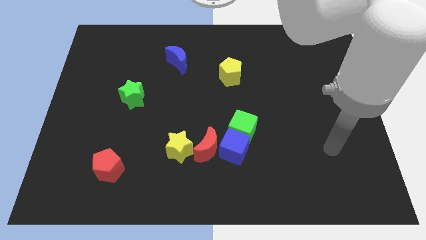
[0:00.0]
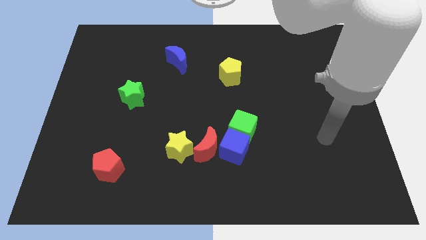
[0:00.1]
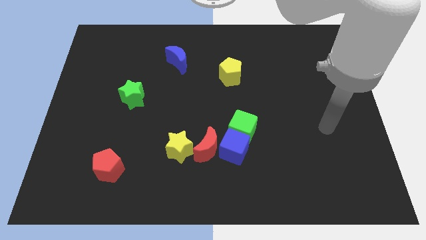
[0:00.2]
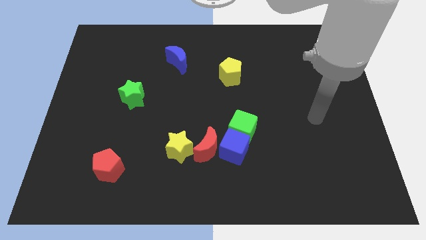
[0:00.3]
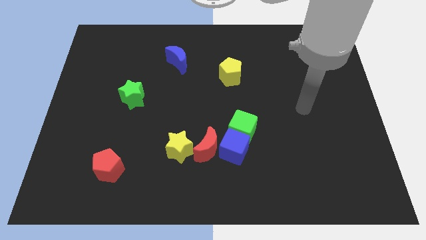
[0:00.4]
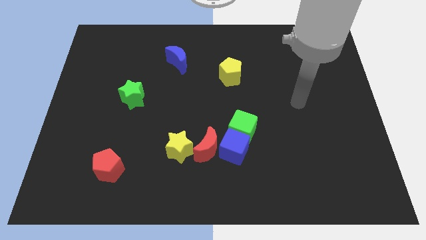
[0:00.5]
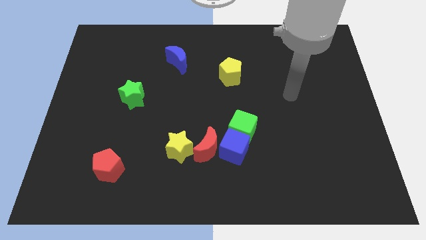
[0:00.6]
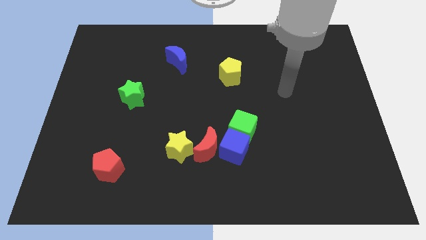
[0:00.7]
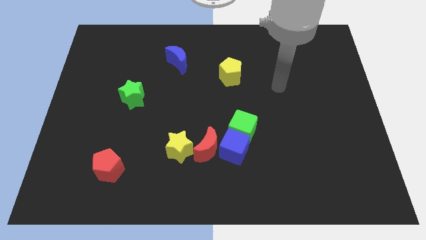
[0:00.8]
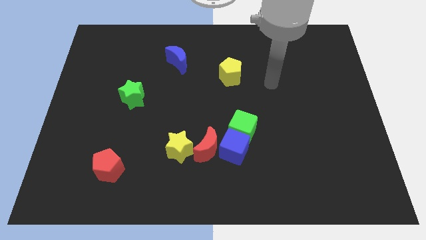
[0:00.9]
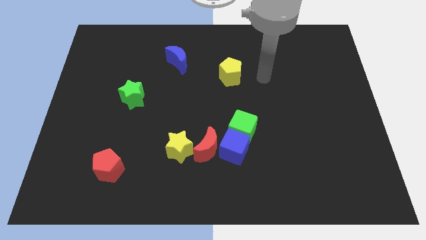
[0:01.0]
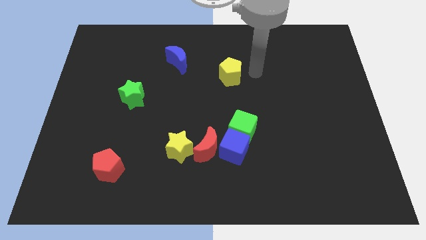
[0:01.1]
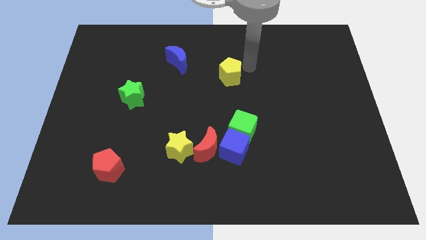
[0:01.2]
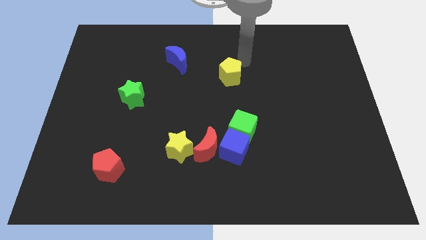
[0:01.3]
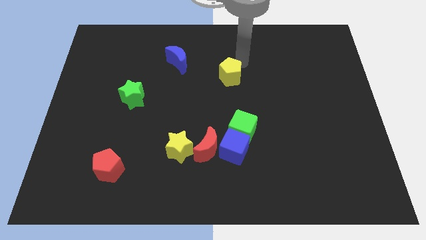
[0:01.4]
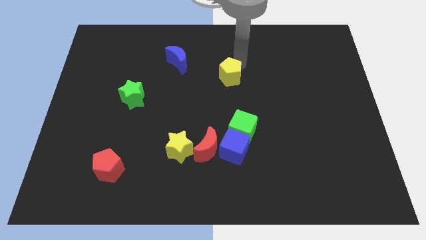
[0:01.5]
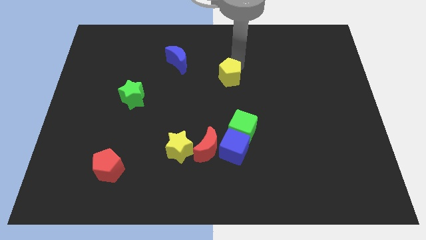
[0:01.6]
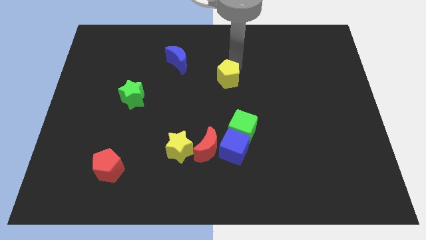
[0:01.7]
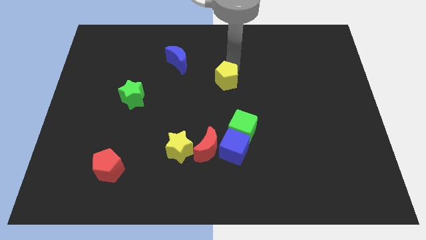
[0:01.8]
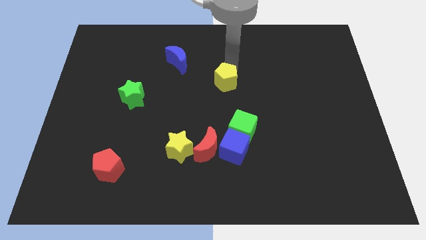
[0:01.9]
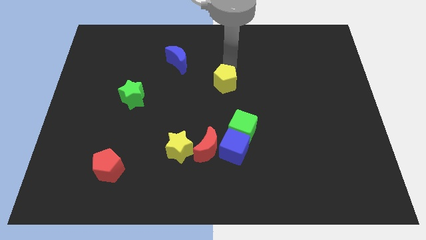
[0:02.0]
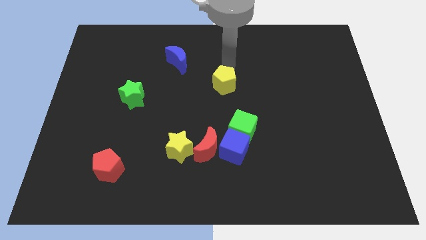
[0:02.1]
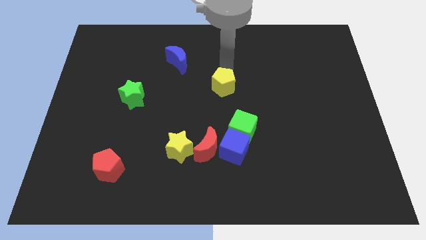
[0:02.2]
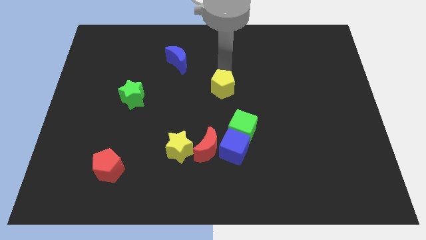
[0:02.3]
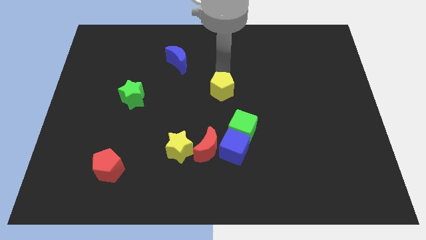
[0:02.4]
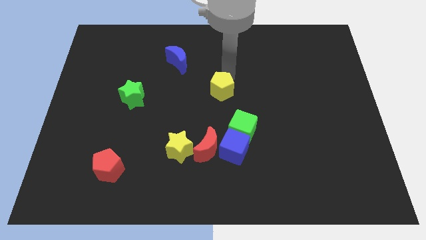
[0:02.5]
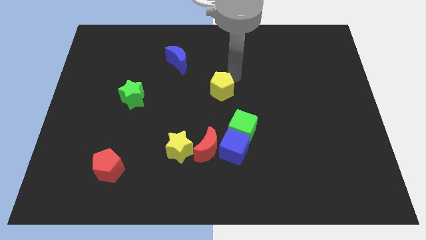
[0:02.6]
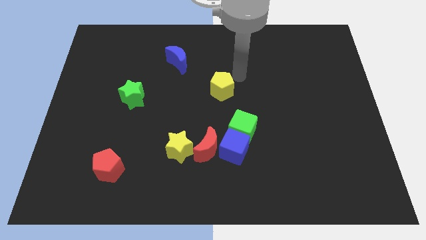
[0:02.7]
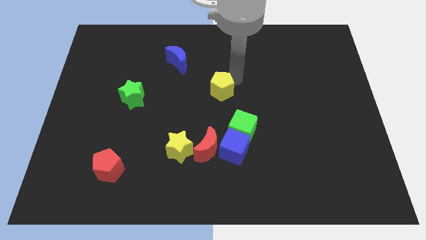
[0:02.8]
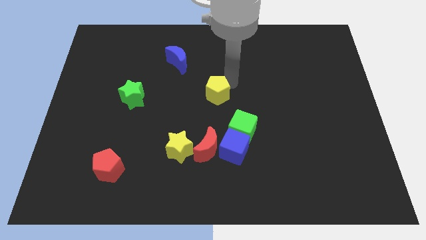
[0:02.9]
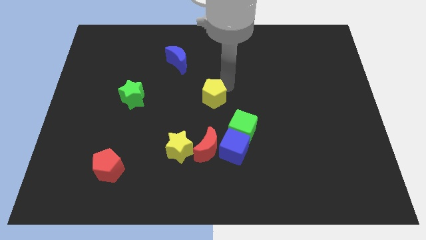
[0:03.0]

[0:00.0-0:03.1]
move the yellow pentagon a little bit diagonally downwards and to the left

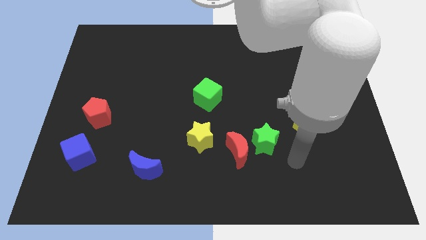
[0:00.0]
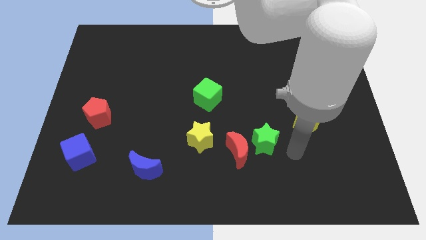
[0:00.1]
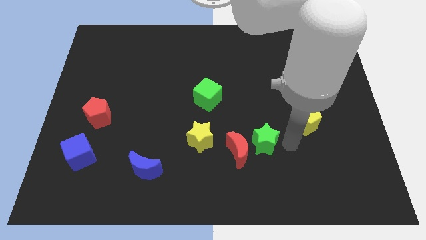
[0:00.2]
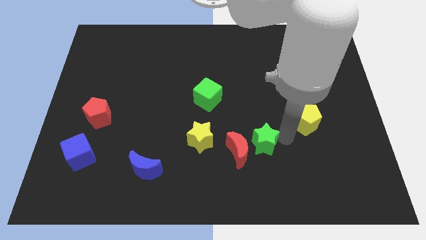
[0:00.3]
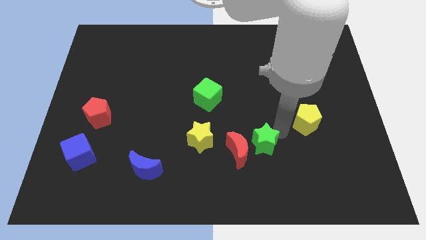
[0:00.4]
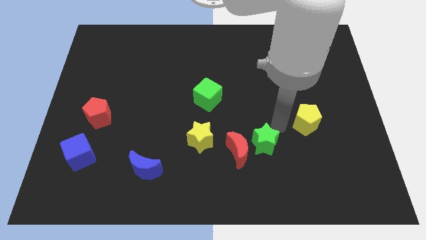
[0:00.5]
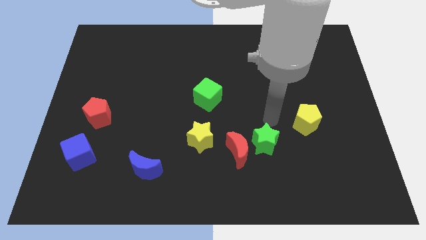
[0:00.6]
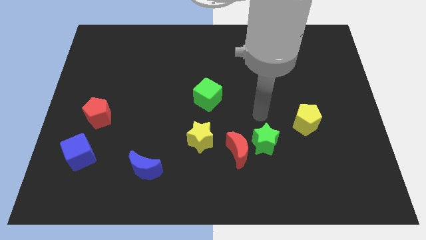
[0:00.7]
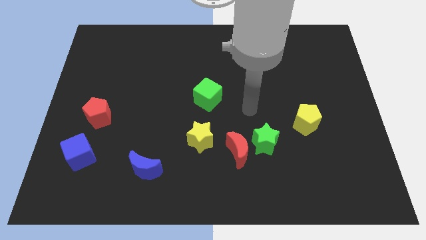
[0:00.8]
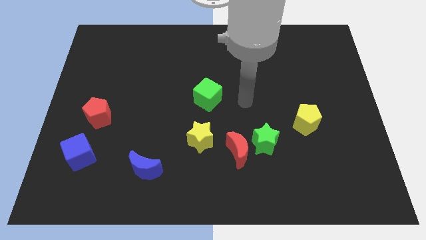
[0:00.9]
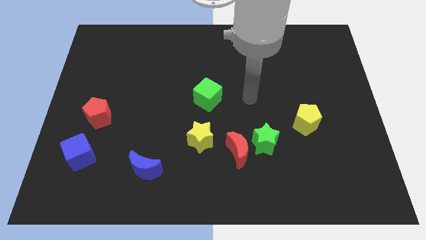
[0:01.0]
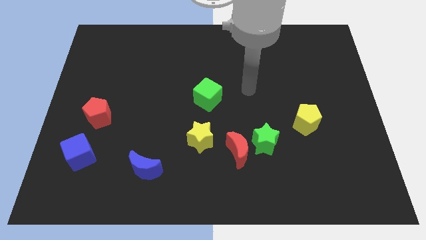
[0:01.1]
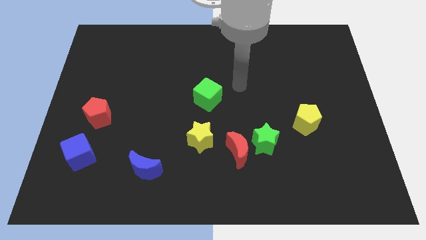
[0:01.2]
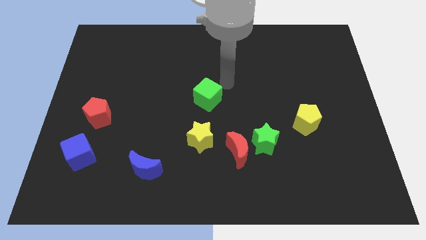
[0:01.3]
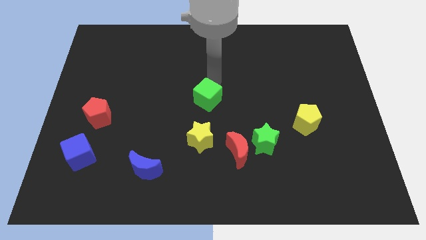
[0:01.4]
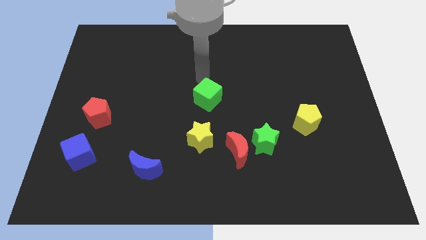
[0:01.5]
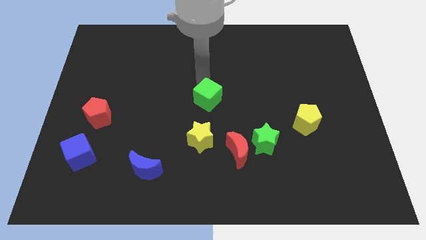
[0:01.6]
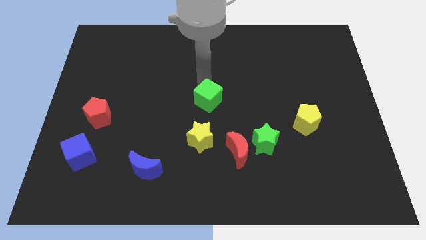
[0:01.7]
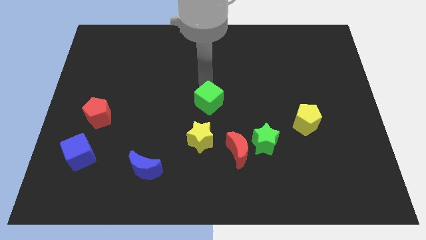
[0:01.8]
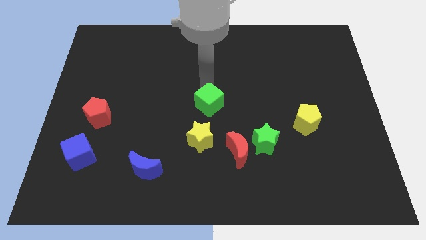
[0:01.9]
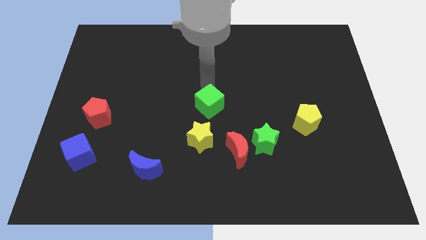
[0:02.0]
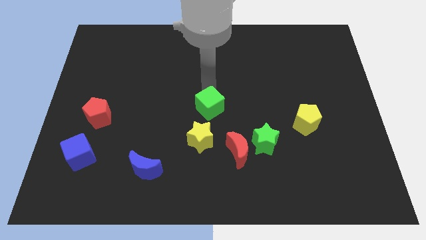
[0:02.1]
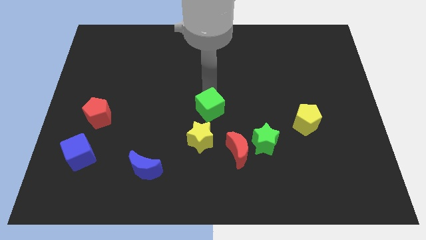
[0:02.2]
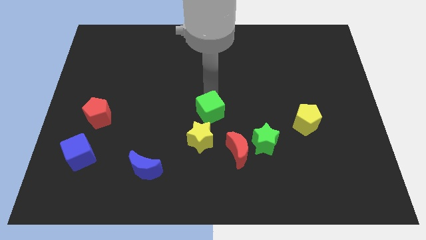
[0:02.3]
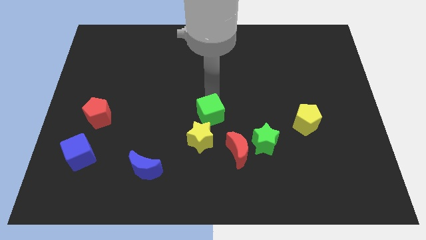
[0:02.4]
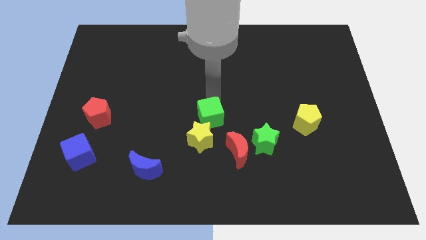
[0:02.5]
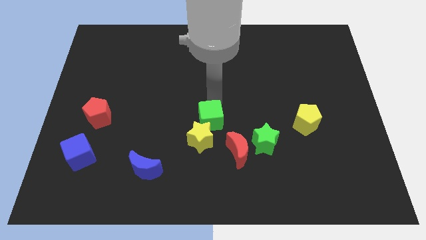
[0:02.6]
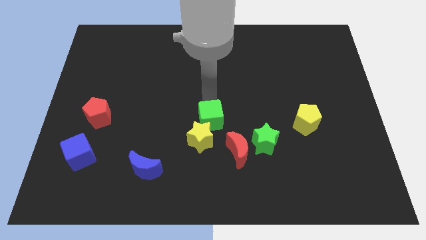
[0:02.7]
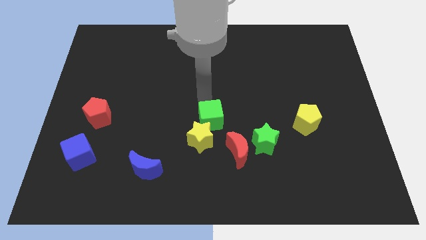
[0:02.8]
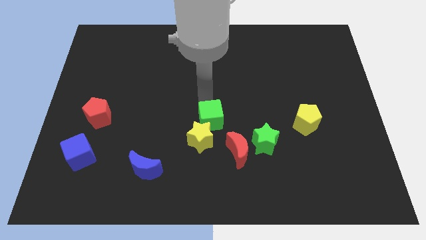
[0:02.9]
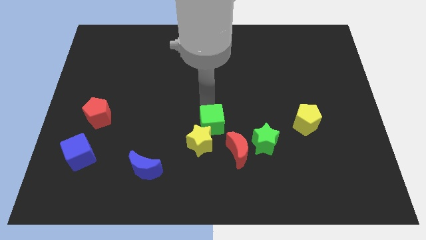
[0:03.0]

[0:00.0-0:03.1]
slightly move the green cube down

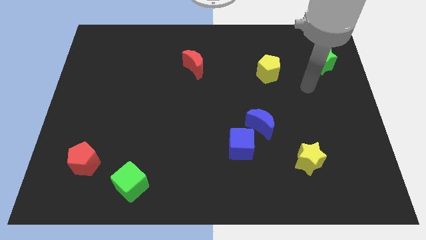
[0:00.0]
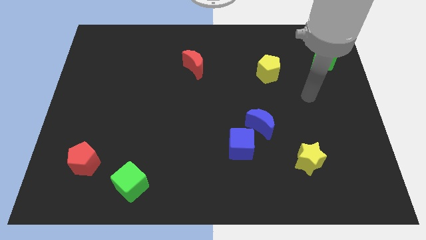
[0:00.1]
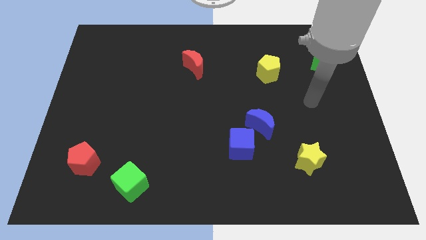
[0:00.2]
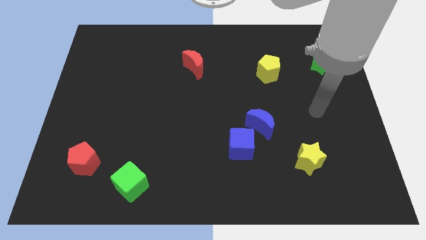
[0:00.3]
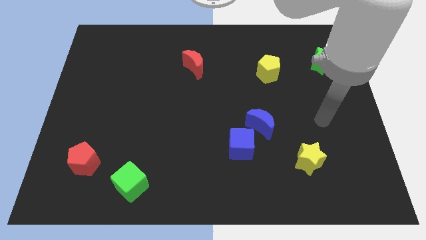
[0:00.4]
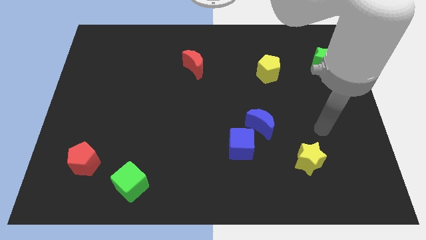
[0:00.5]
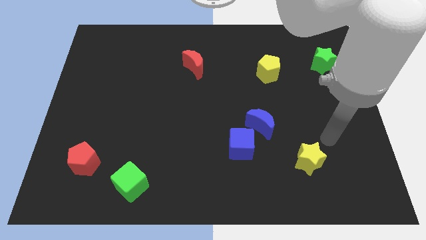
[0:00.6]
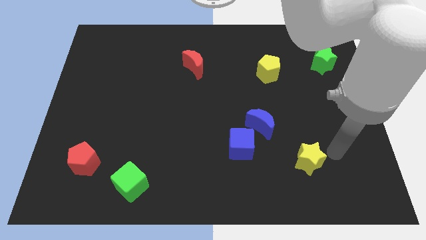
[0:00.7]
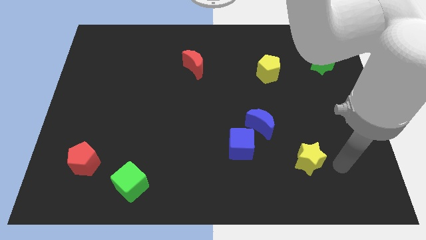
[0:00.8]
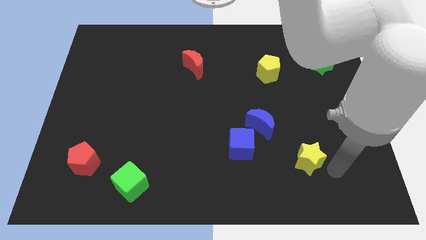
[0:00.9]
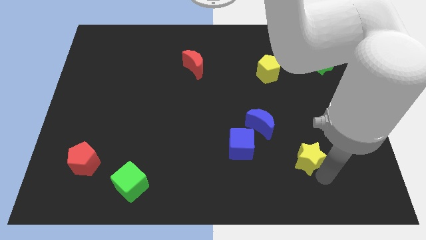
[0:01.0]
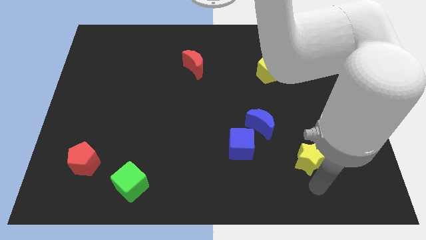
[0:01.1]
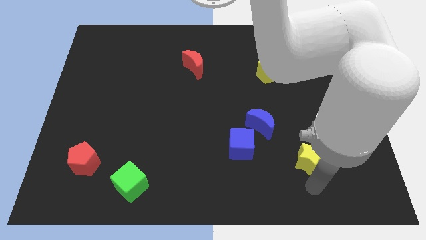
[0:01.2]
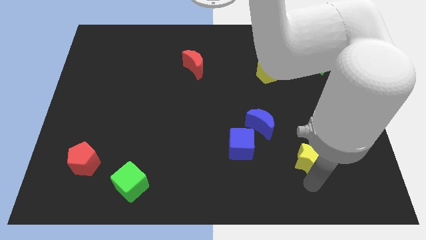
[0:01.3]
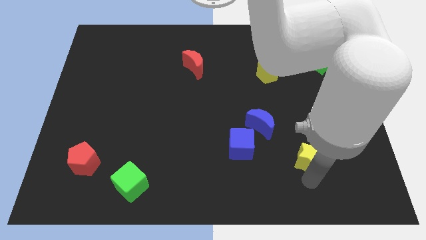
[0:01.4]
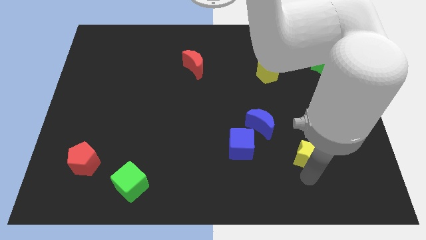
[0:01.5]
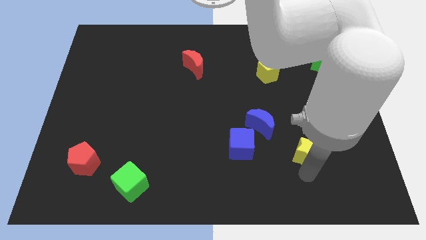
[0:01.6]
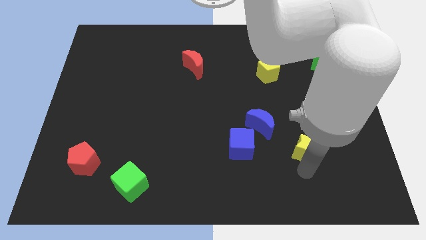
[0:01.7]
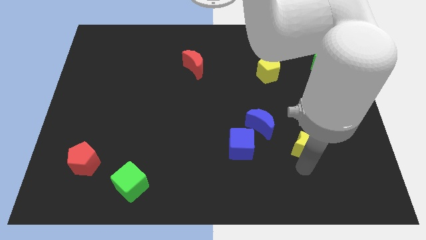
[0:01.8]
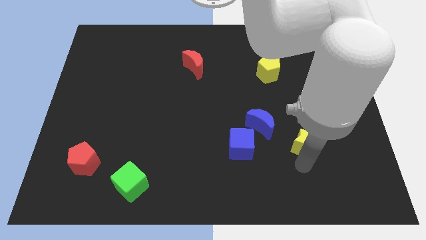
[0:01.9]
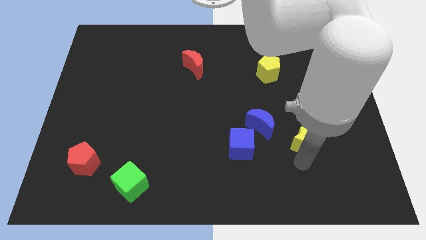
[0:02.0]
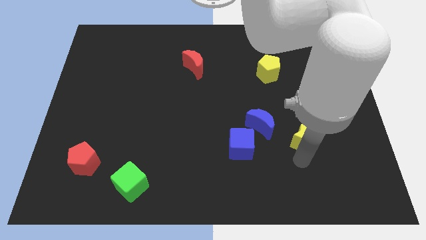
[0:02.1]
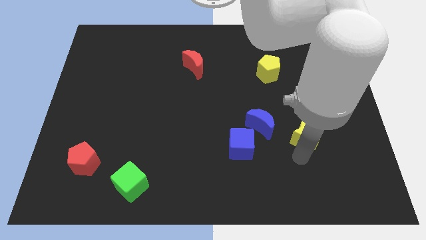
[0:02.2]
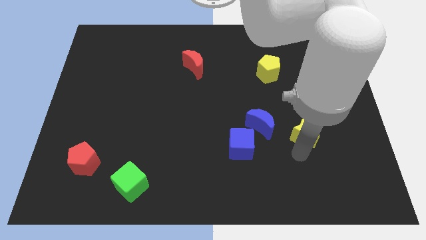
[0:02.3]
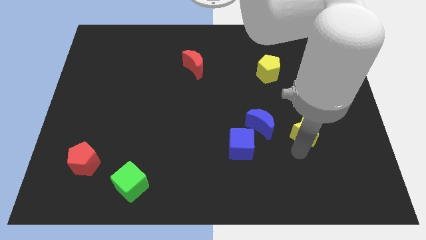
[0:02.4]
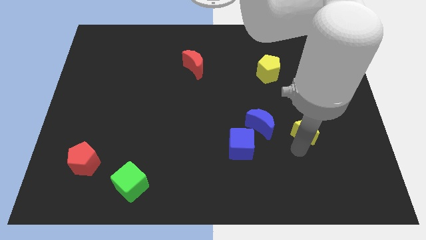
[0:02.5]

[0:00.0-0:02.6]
slightly slide the yellow star upwards
